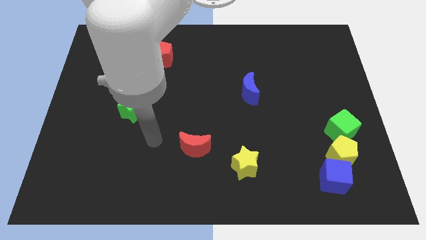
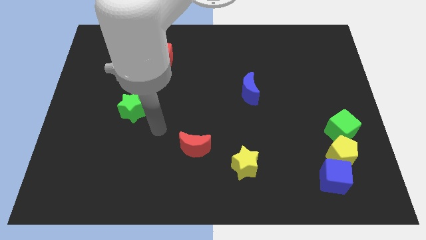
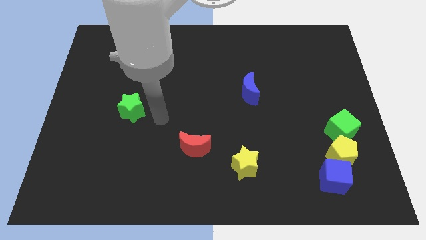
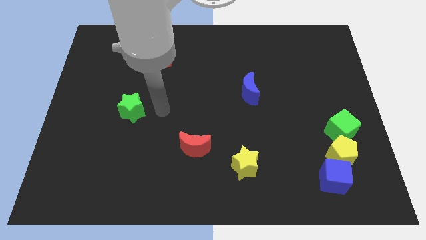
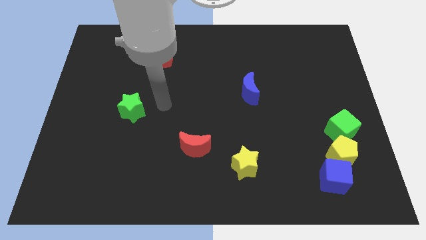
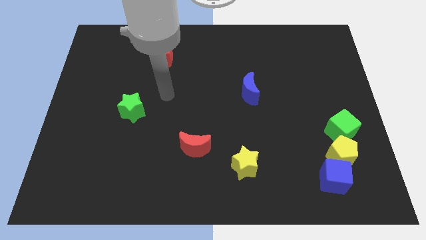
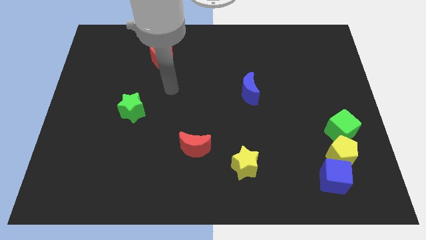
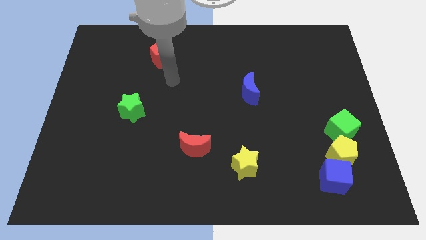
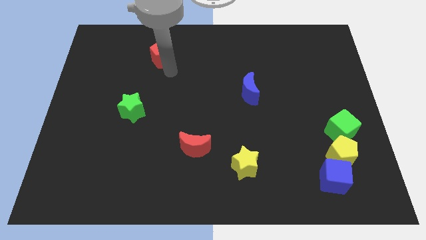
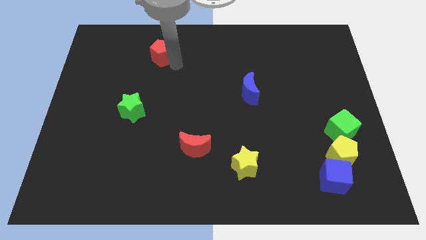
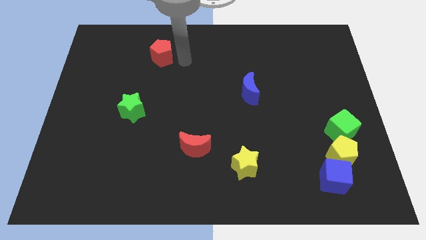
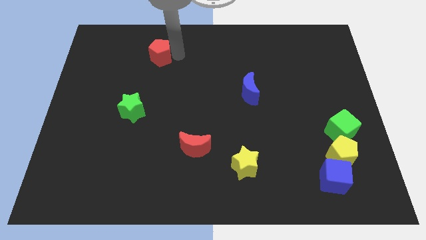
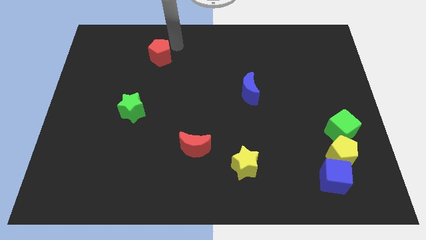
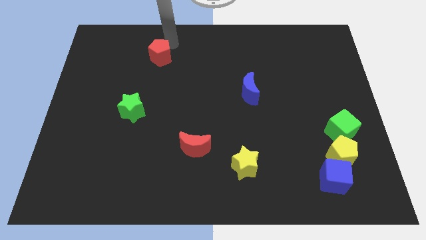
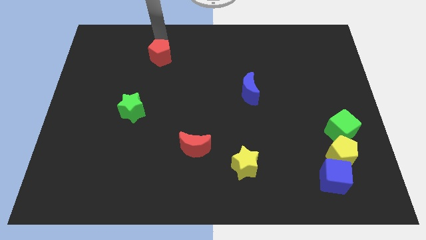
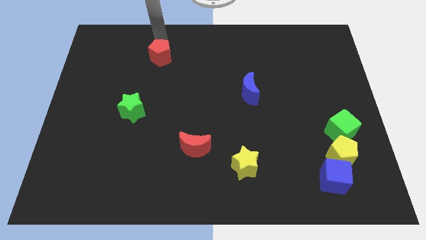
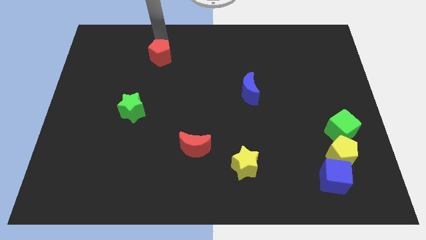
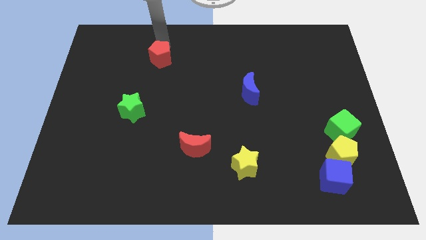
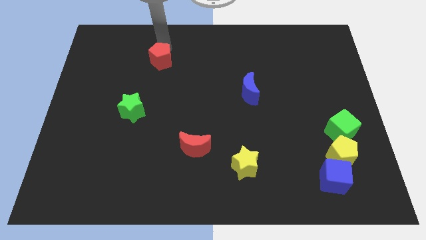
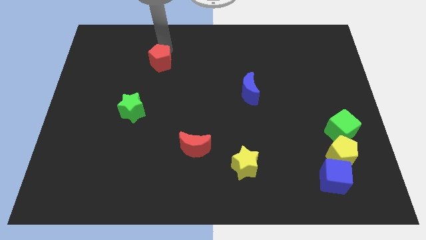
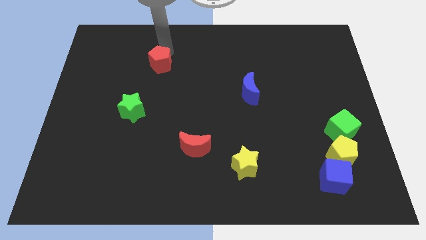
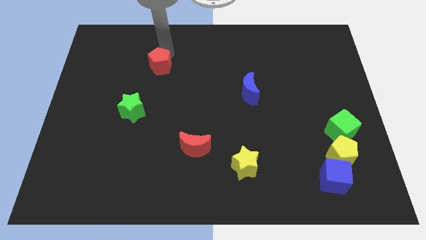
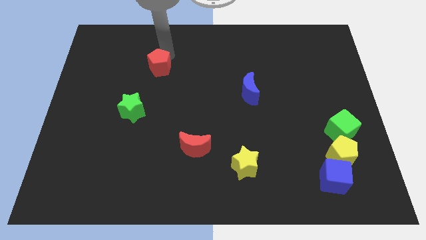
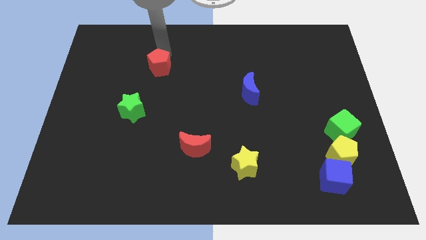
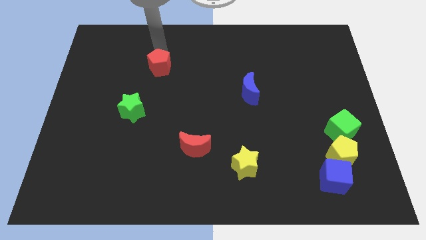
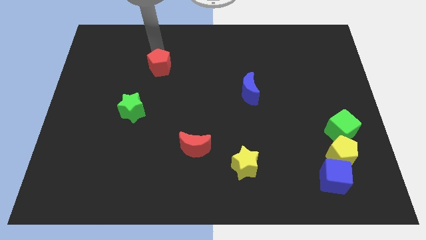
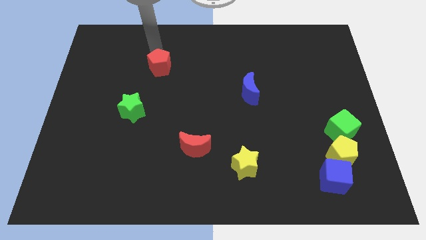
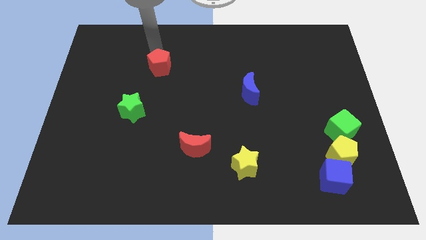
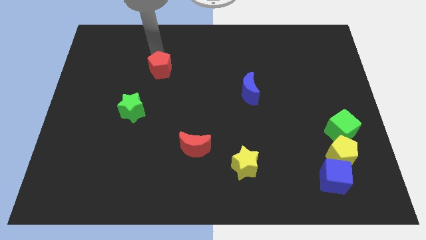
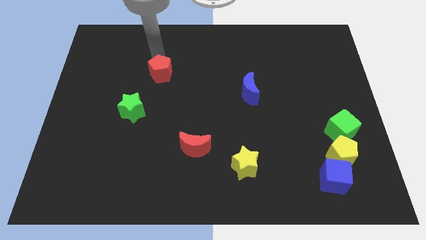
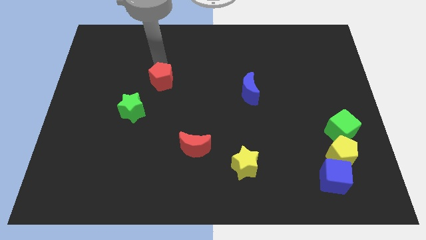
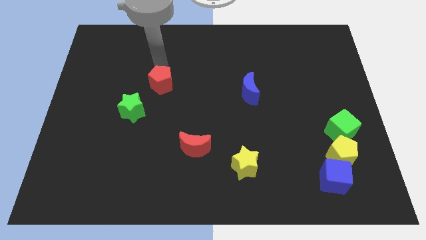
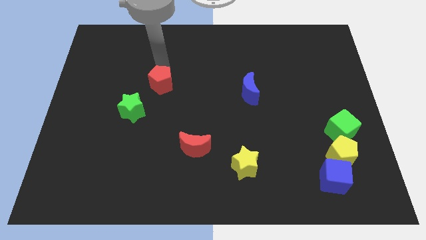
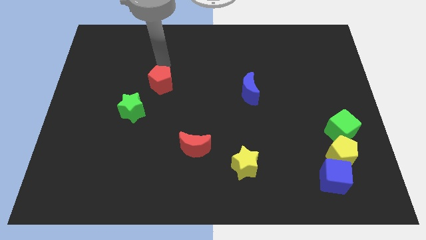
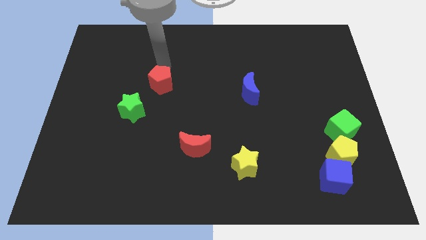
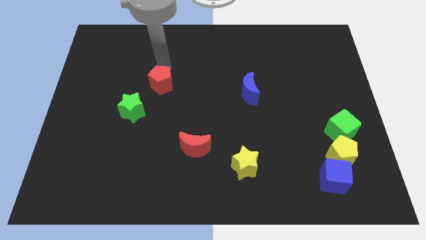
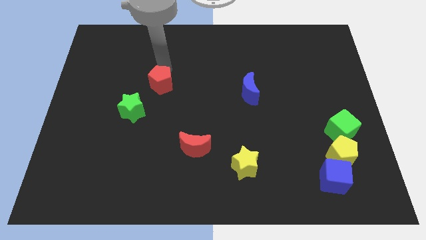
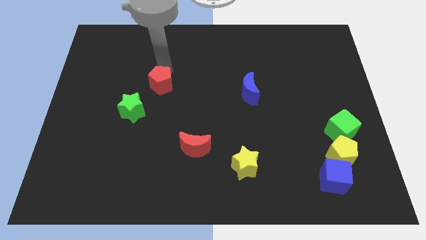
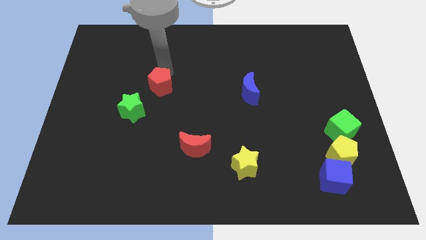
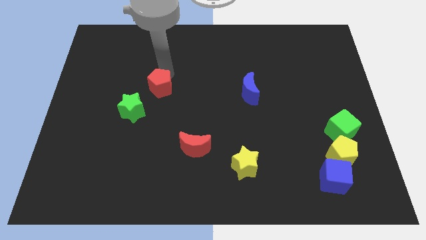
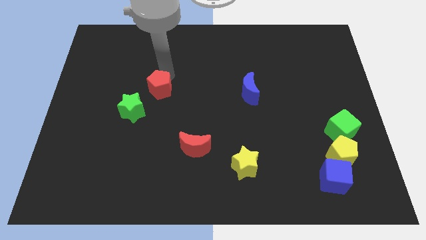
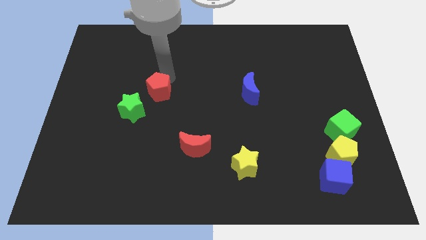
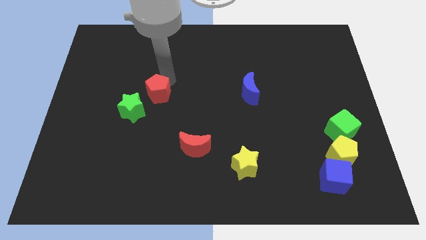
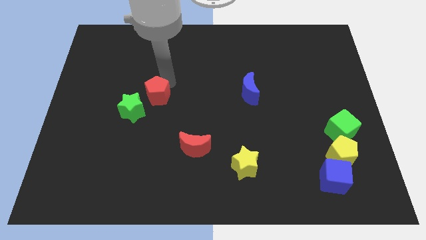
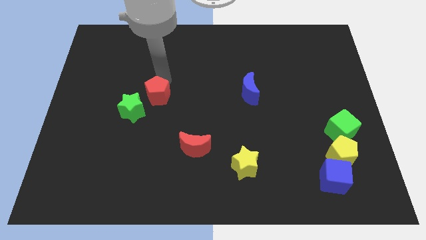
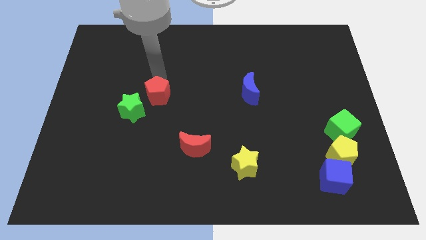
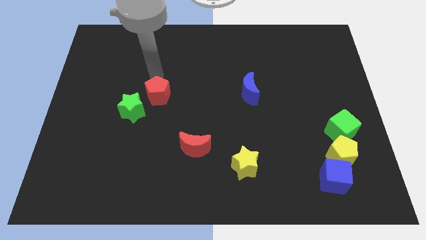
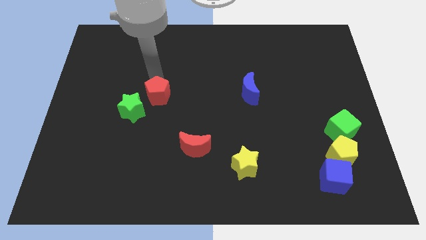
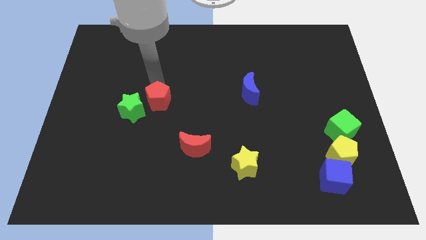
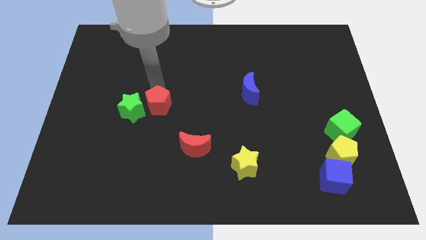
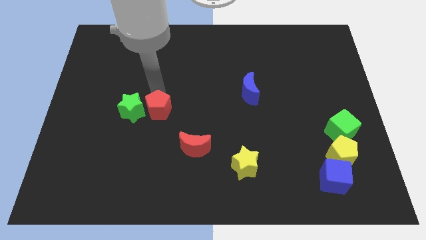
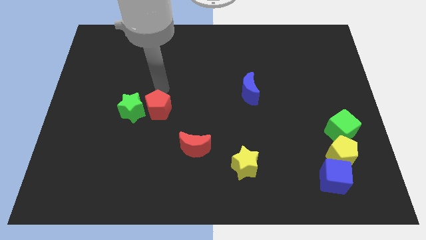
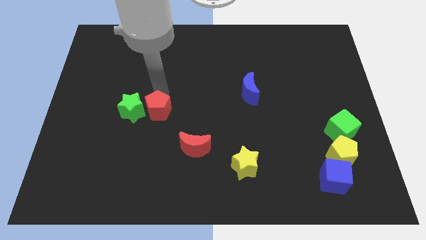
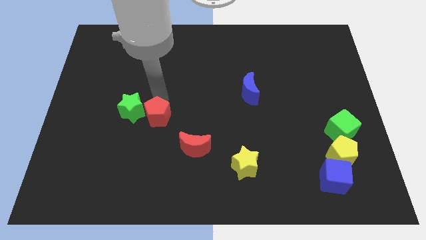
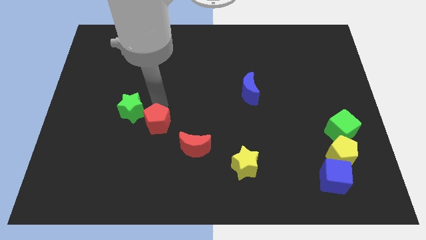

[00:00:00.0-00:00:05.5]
push the red pentagon downwards

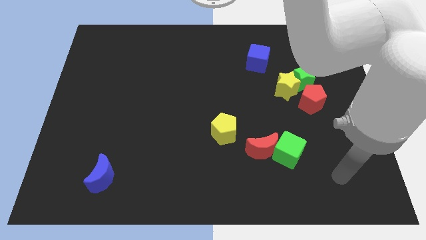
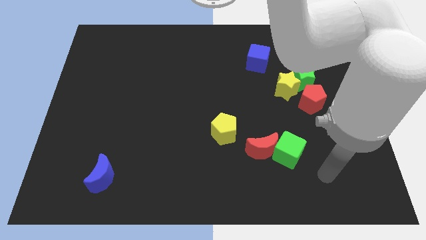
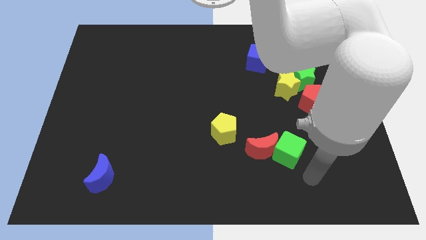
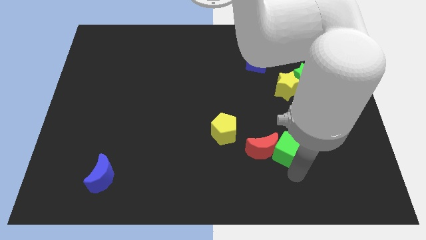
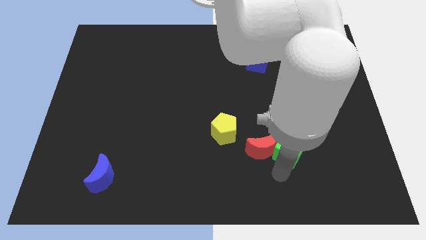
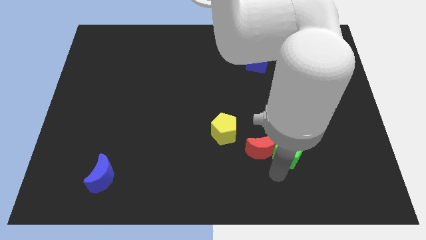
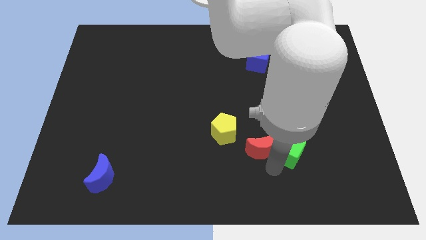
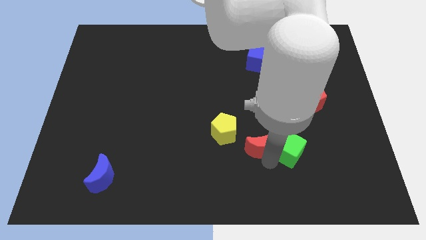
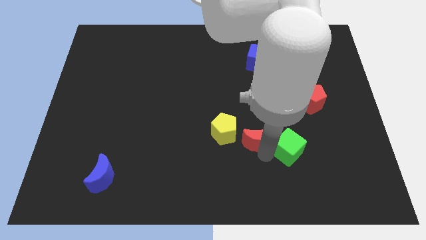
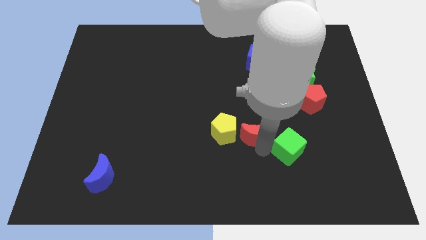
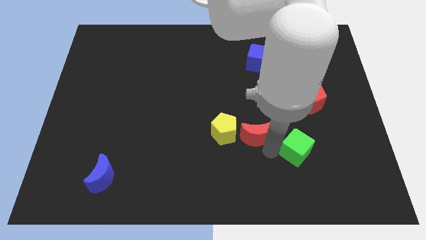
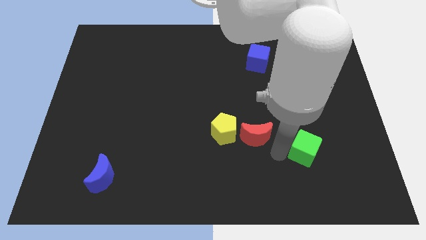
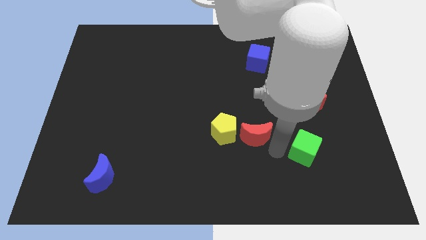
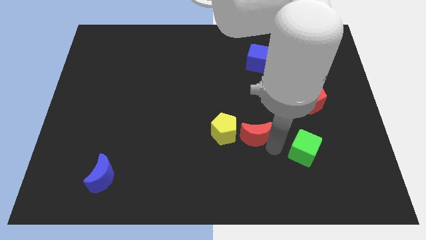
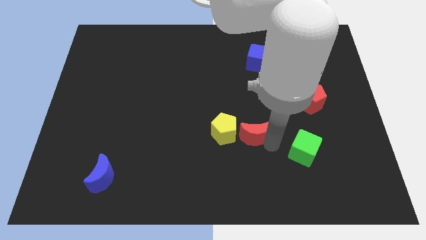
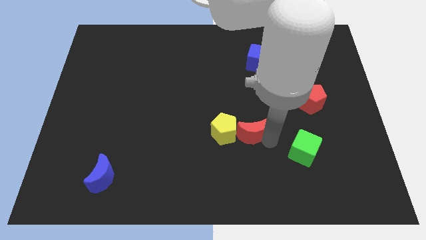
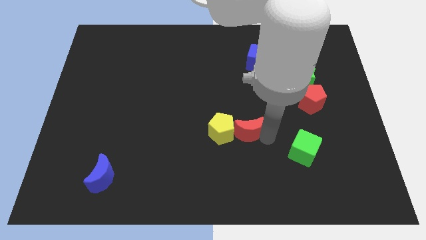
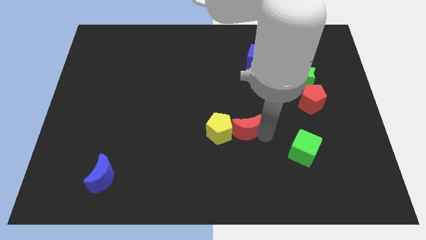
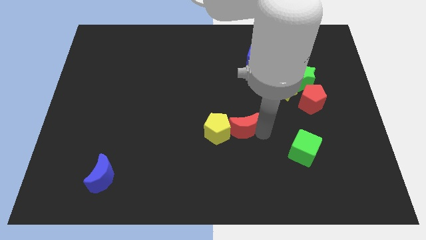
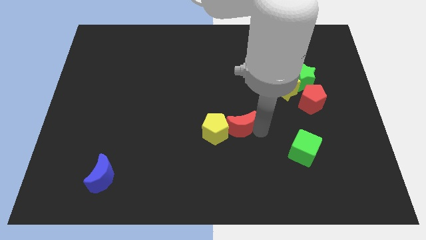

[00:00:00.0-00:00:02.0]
slightly push the red moon upwards and left diagonally

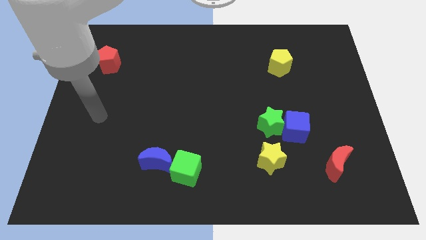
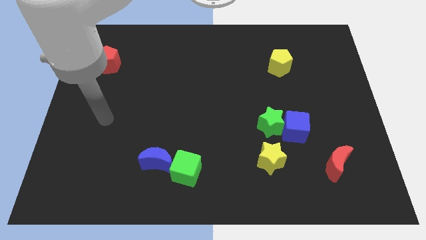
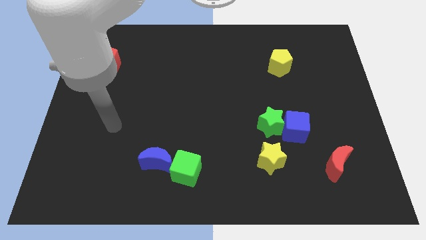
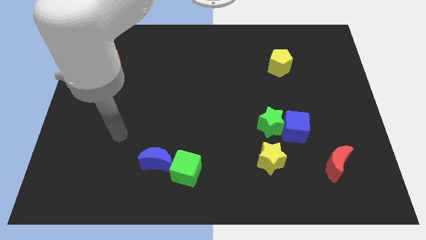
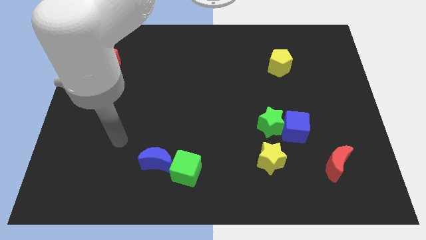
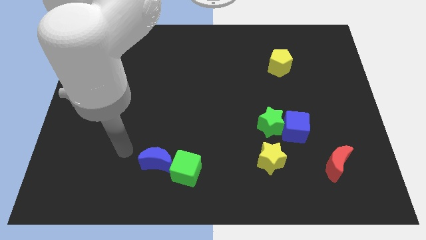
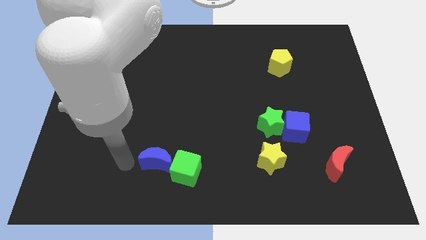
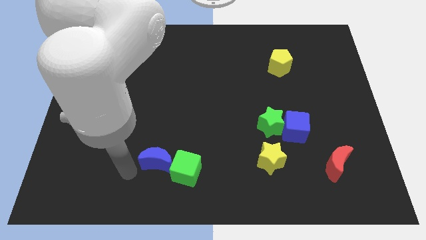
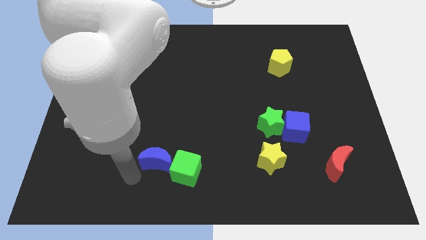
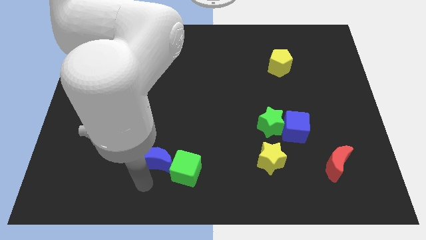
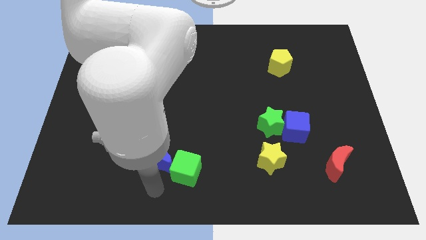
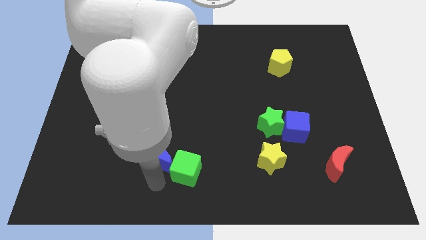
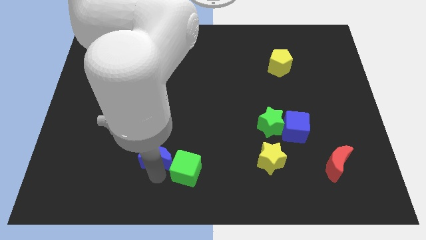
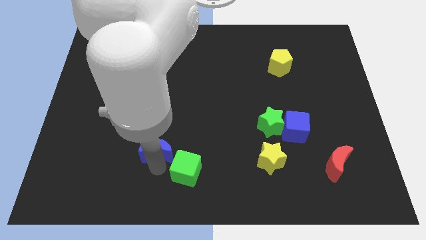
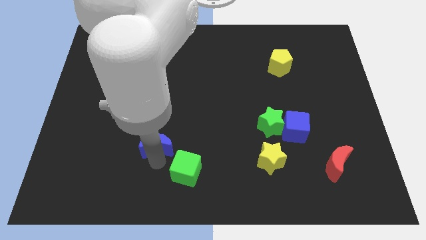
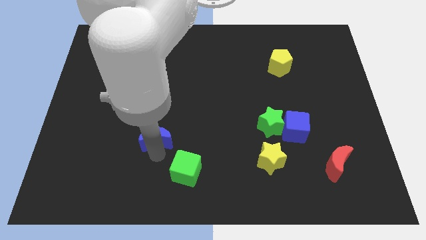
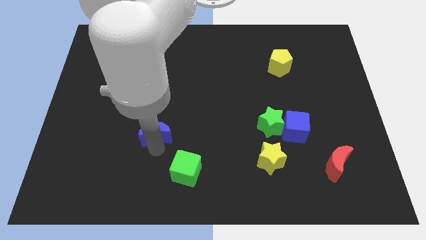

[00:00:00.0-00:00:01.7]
slightly slide the blue moon upwards
